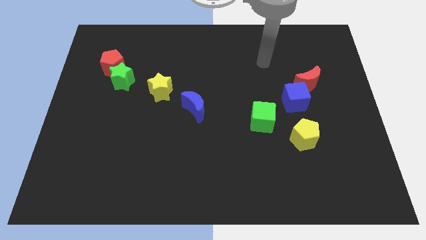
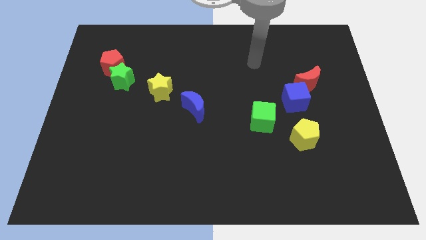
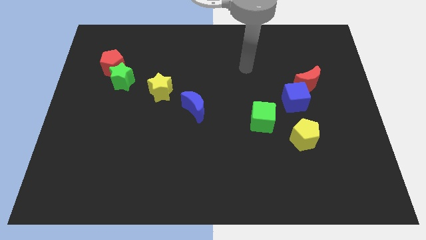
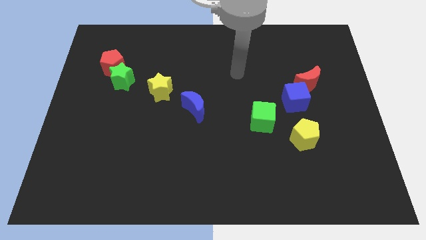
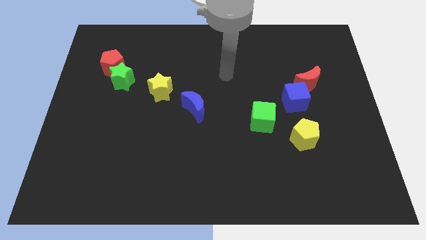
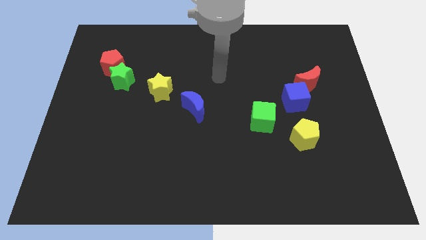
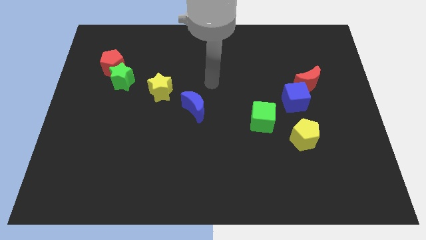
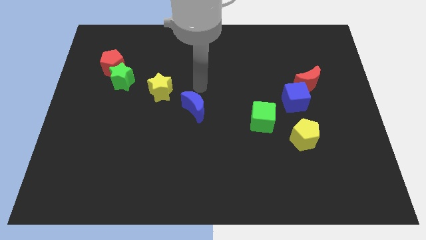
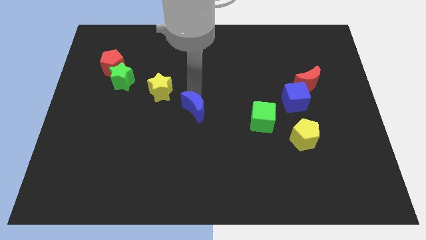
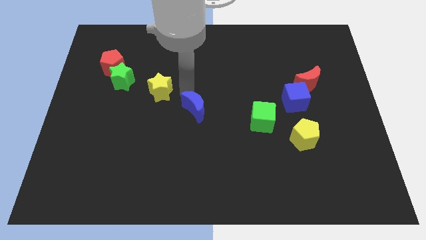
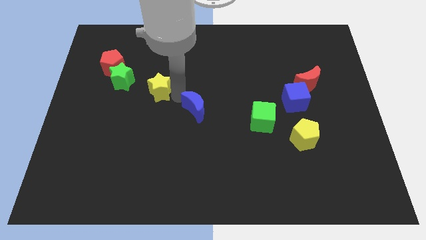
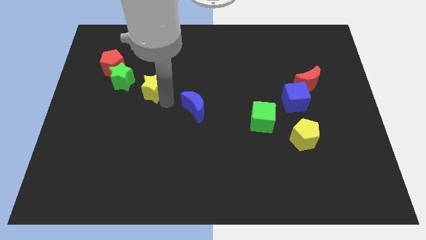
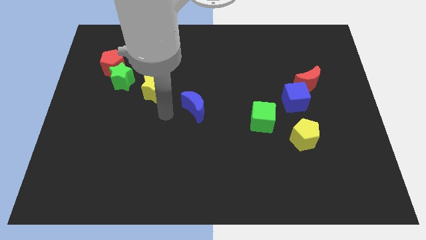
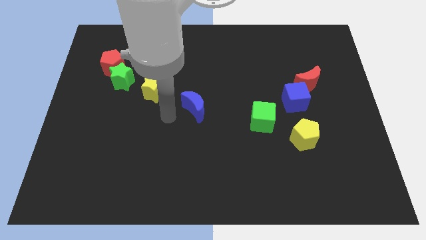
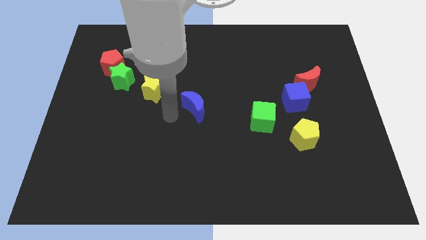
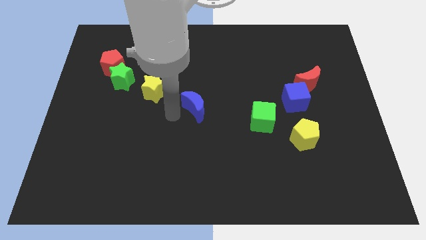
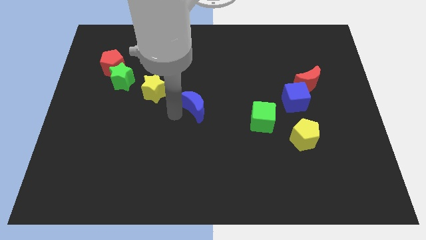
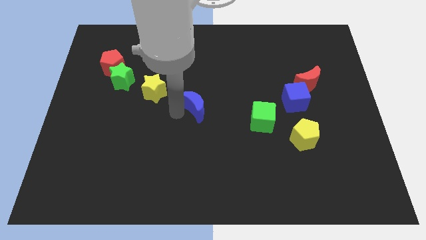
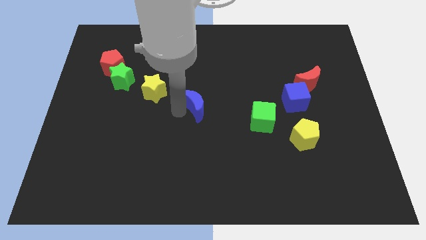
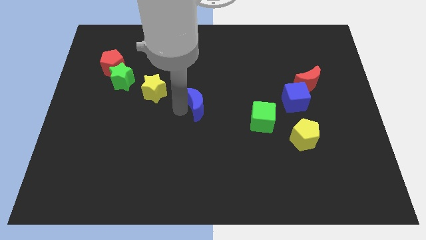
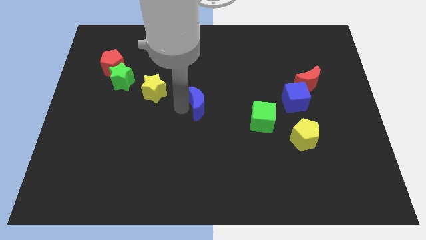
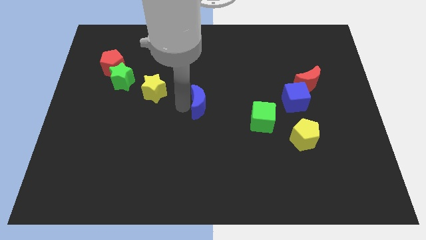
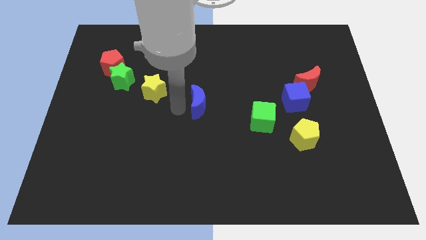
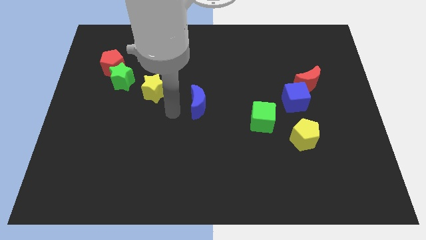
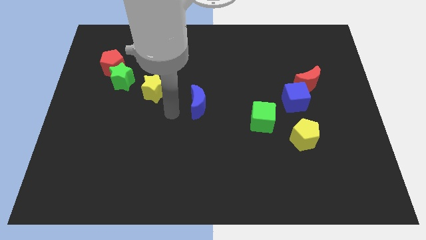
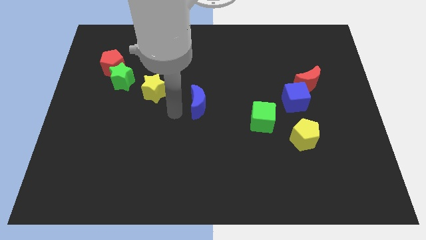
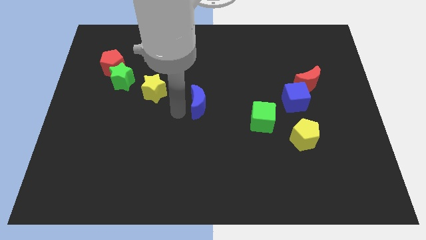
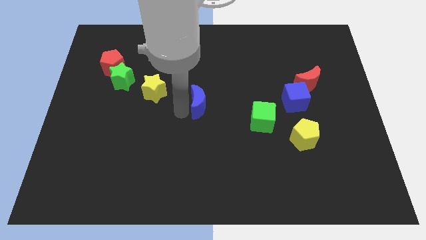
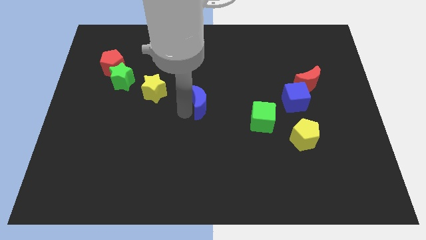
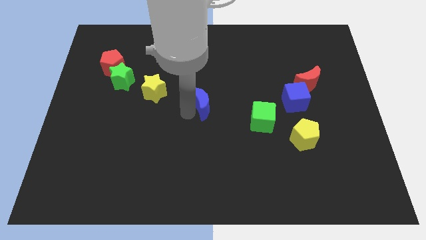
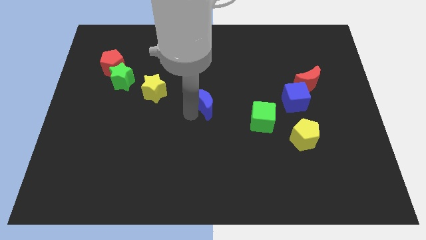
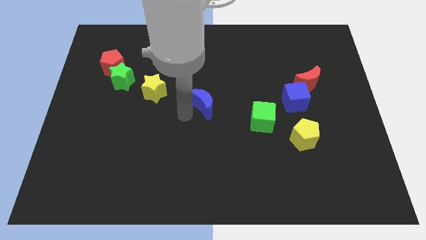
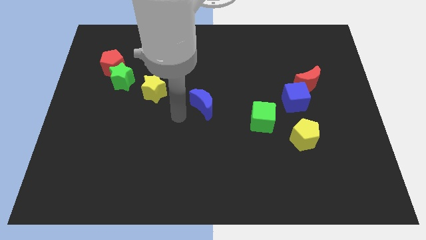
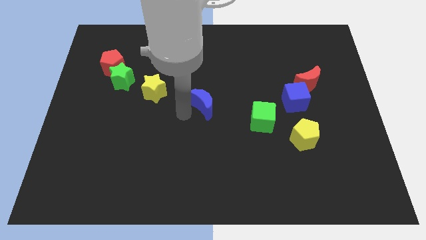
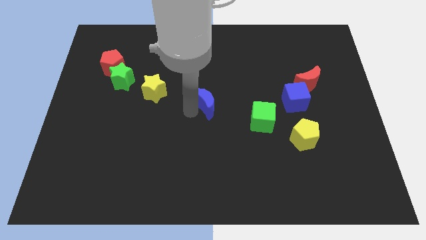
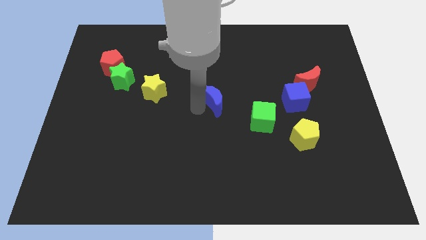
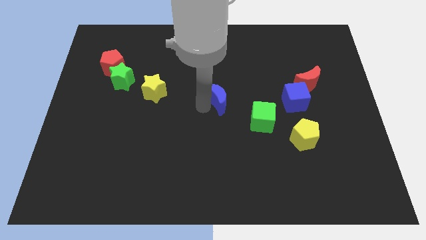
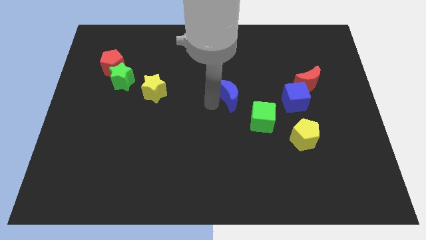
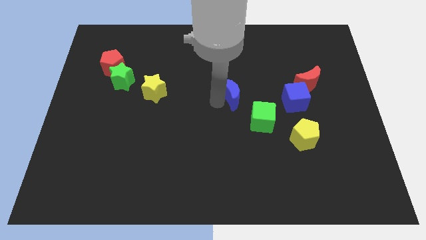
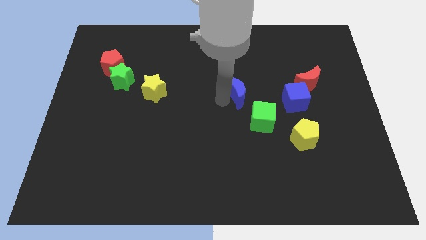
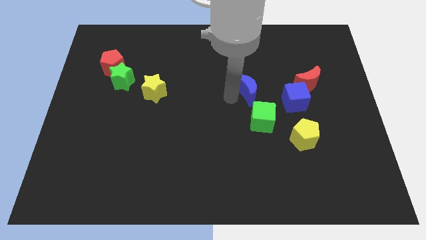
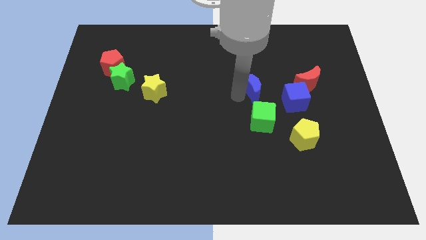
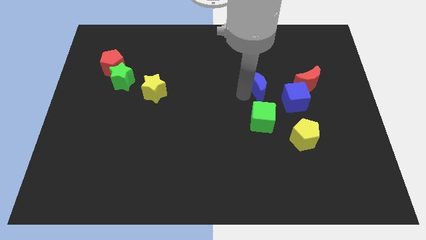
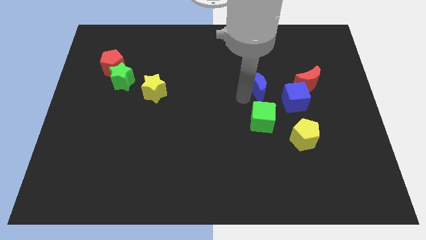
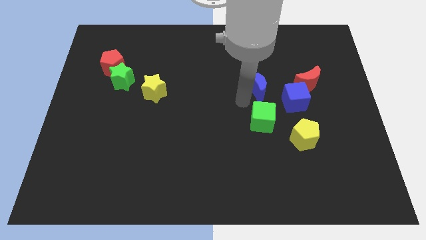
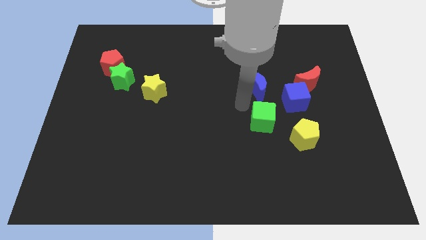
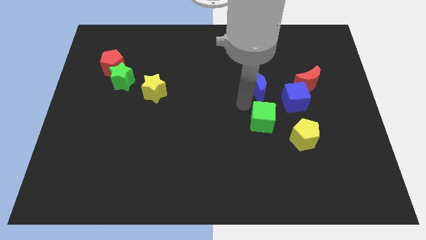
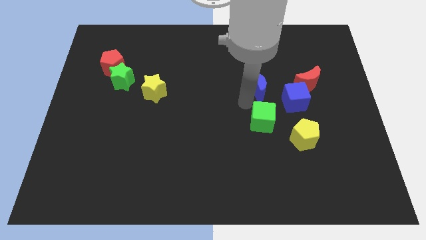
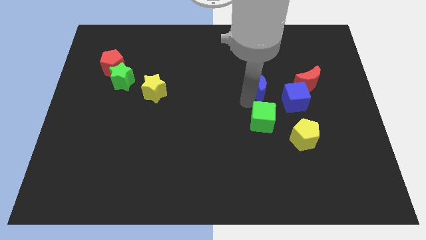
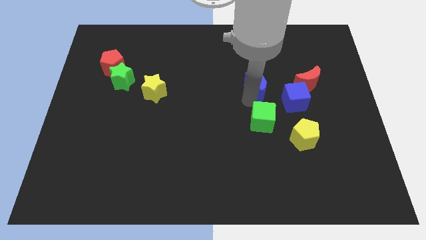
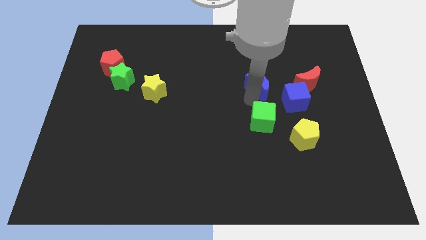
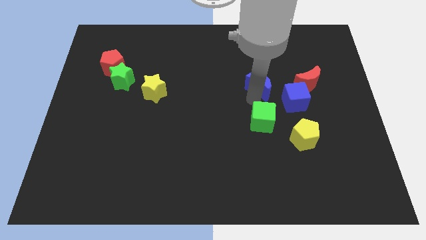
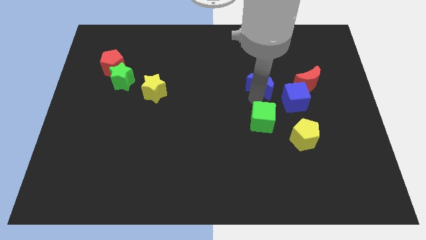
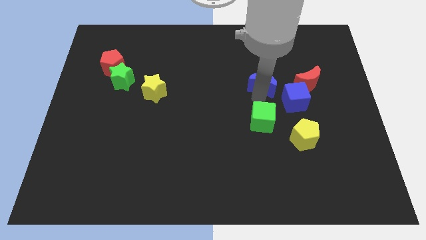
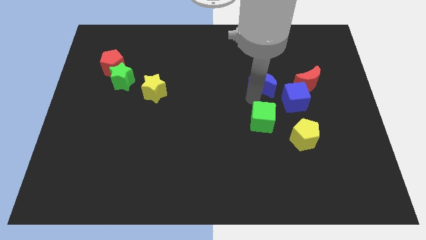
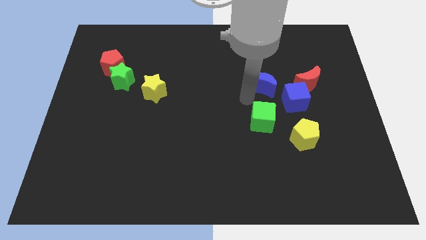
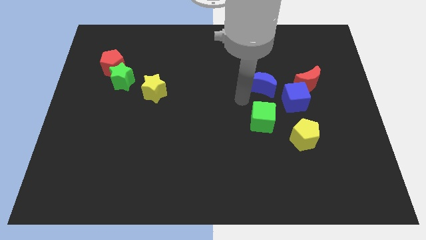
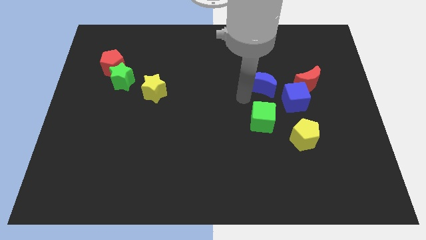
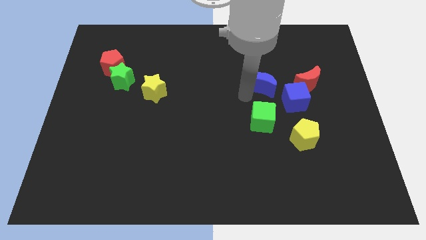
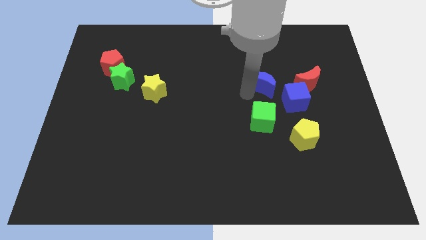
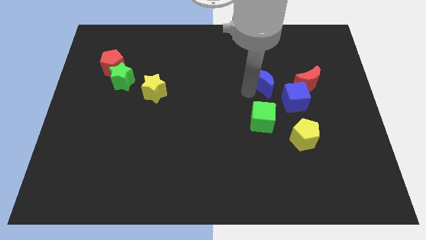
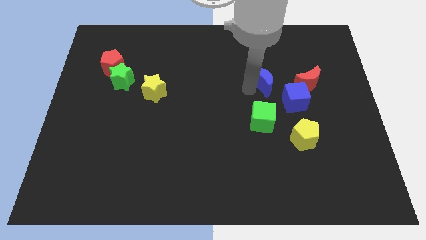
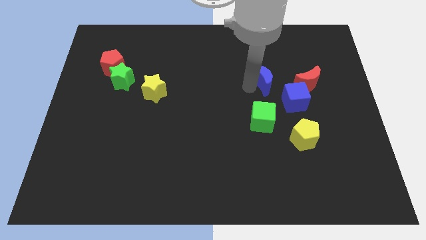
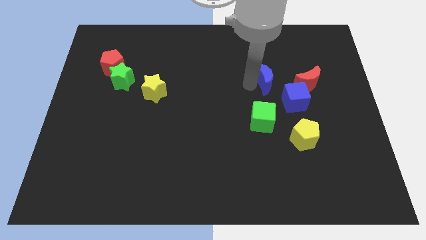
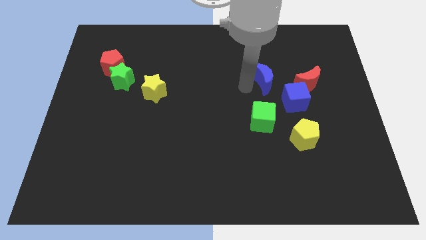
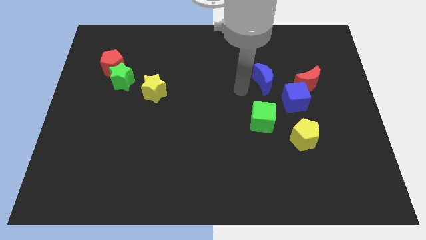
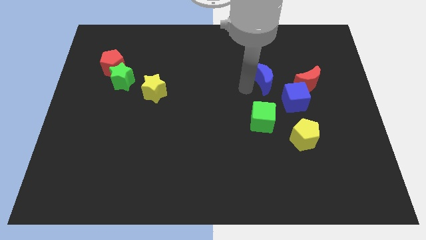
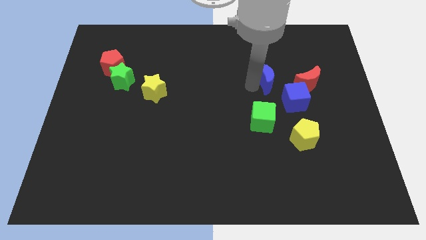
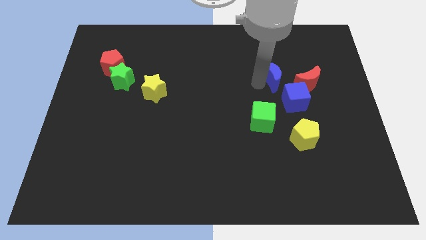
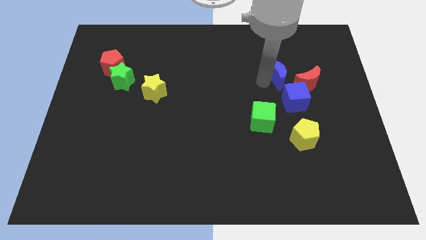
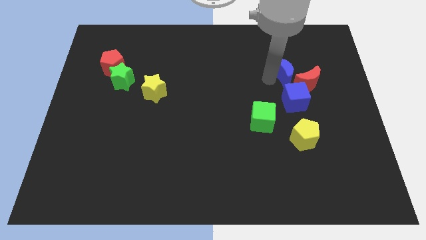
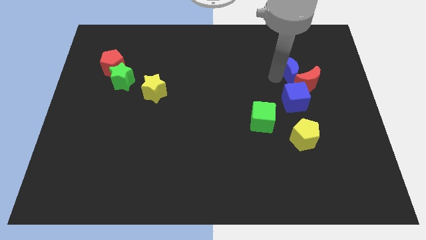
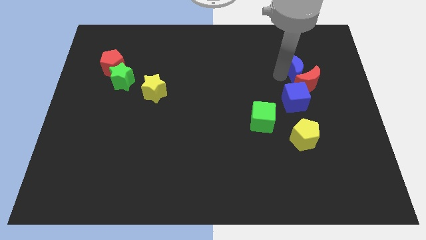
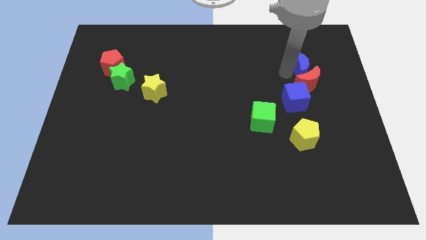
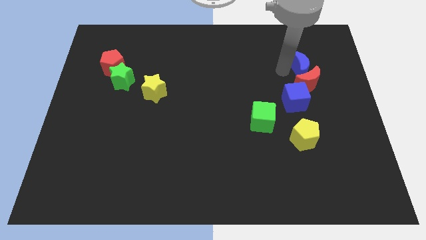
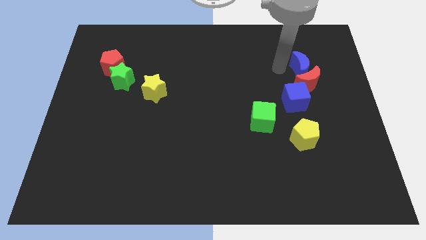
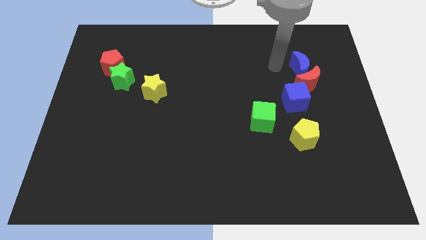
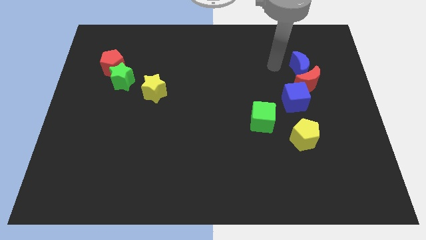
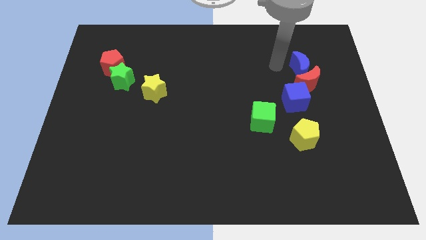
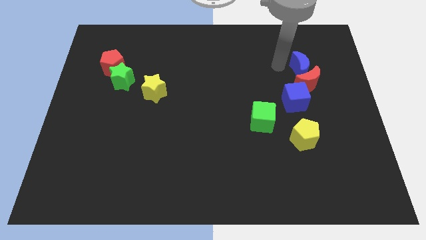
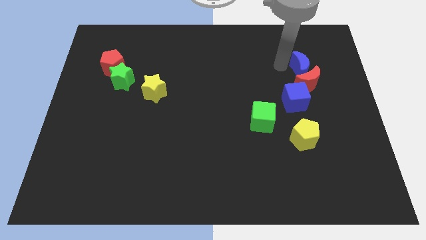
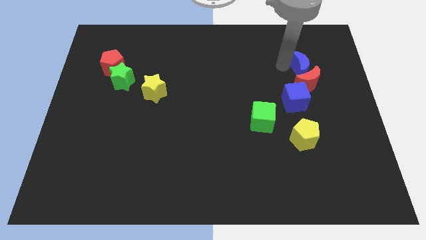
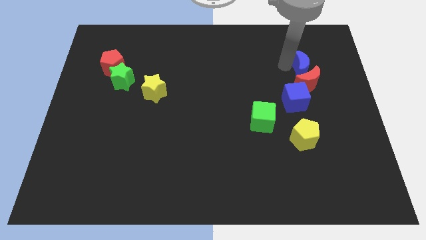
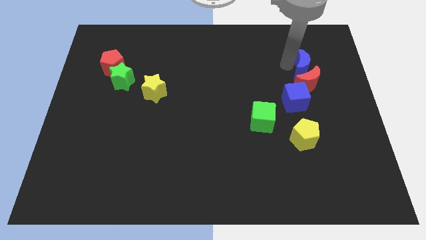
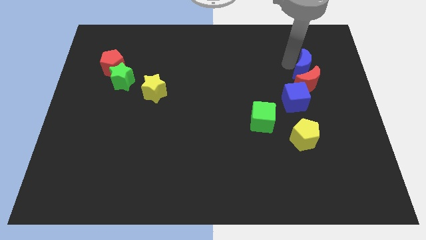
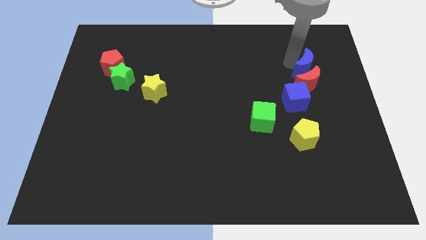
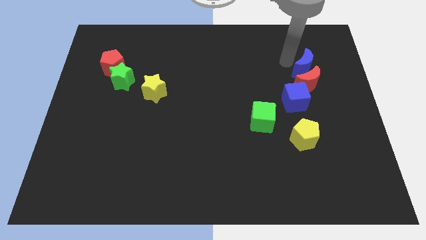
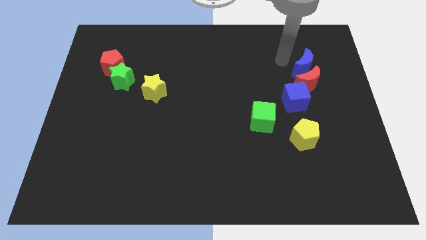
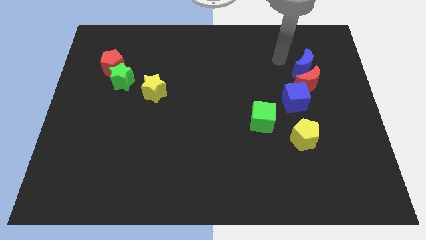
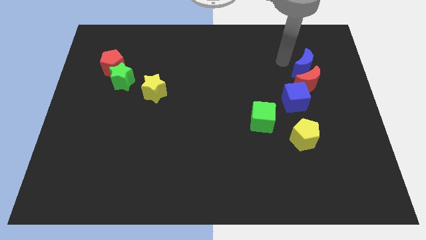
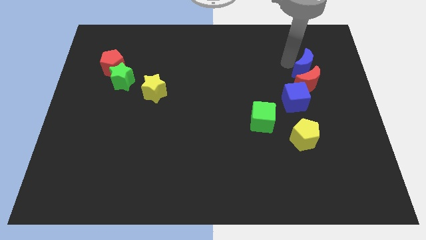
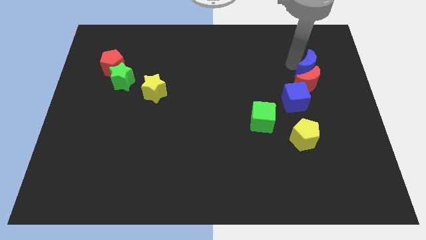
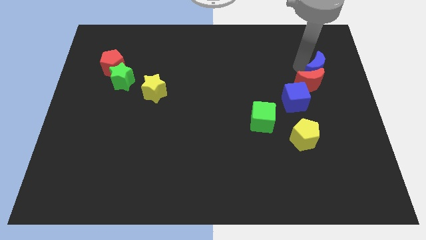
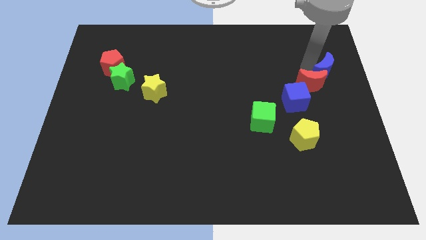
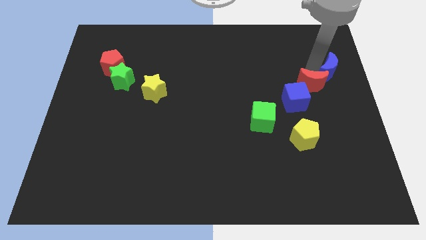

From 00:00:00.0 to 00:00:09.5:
slide the blue moon to the center right
